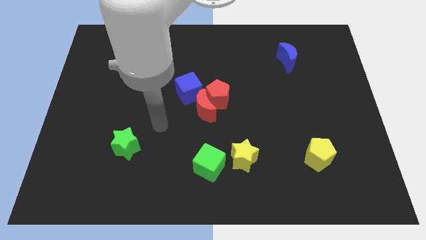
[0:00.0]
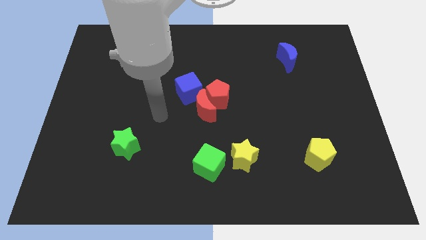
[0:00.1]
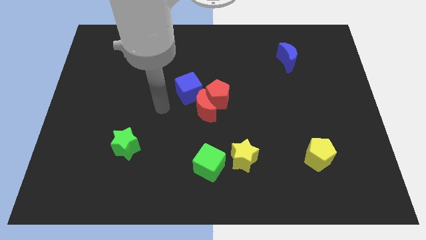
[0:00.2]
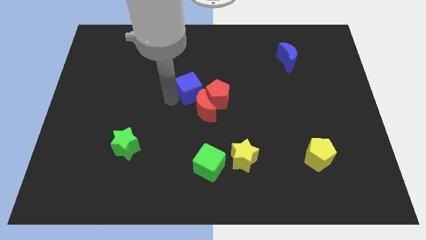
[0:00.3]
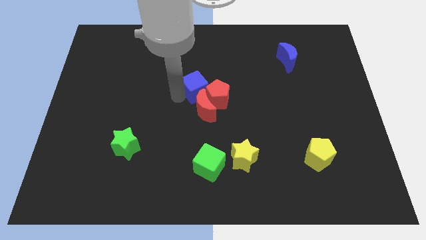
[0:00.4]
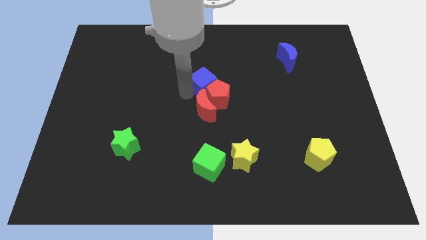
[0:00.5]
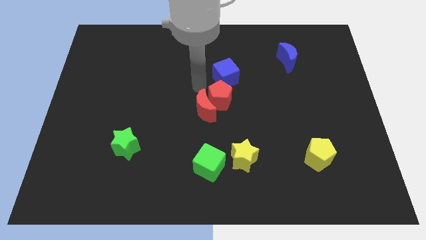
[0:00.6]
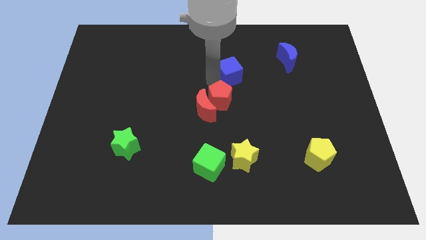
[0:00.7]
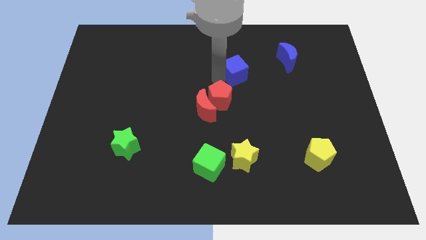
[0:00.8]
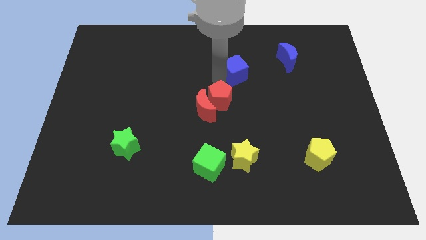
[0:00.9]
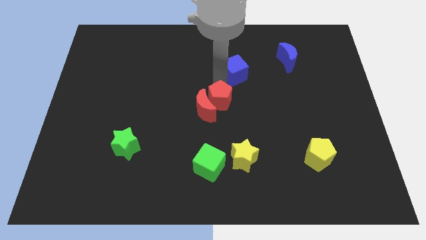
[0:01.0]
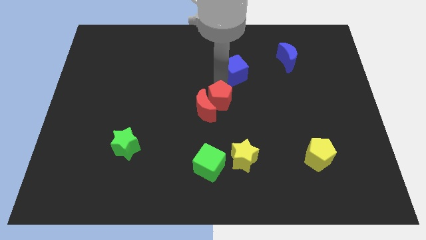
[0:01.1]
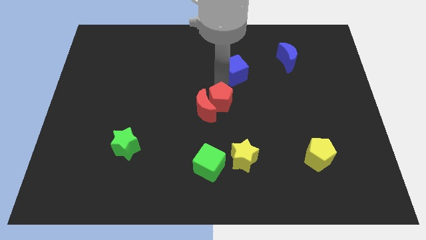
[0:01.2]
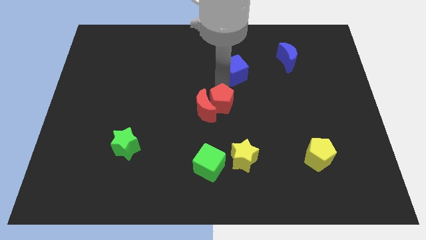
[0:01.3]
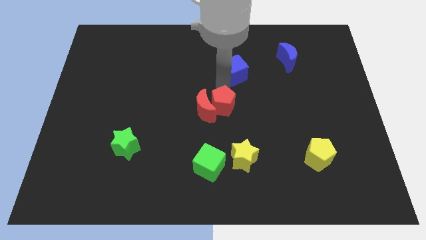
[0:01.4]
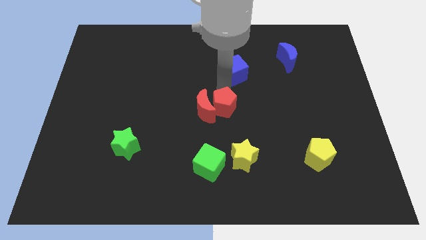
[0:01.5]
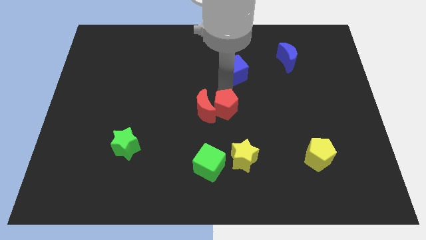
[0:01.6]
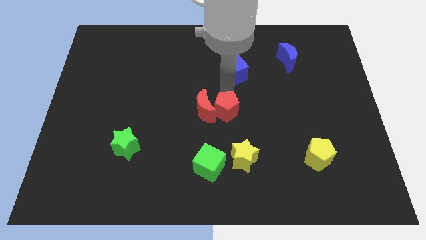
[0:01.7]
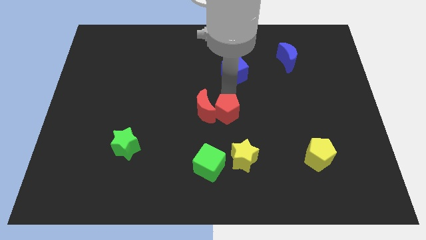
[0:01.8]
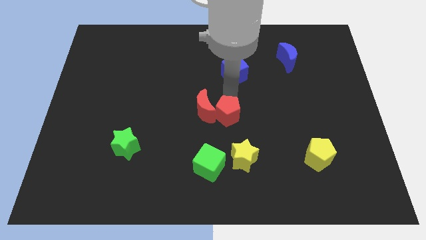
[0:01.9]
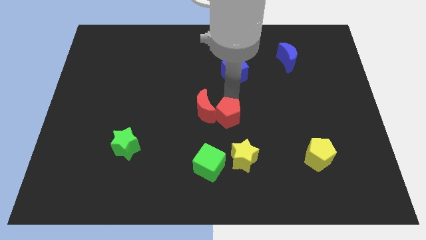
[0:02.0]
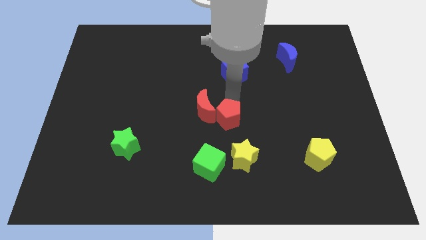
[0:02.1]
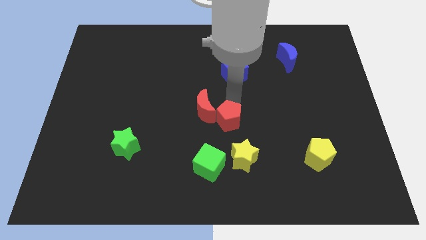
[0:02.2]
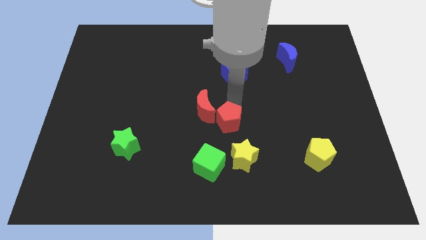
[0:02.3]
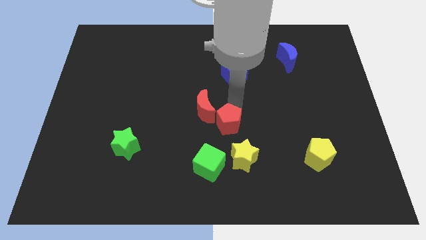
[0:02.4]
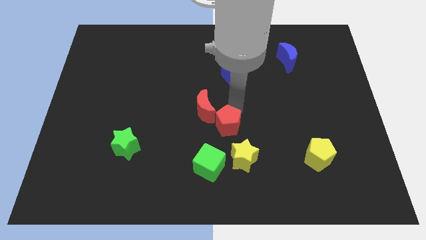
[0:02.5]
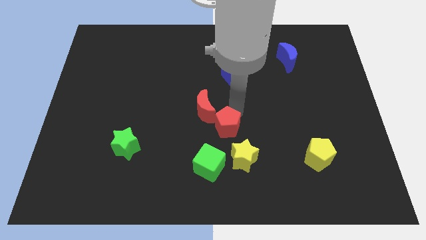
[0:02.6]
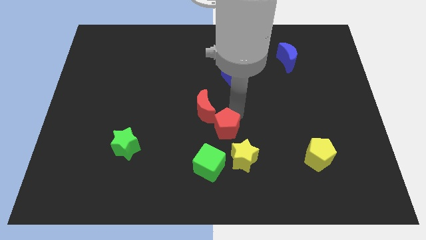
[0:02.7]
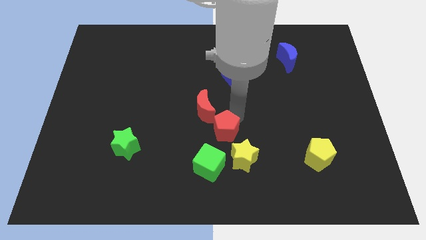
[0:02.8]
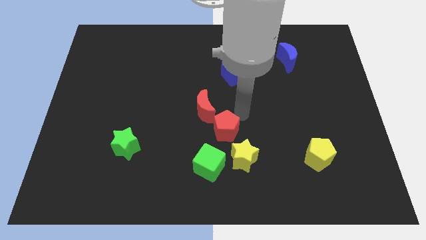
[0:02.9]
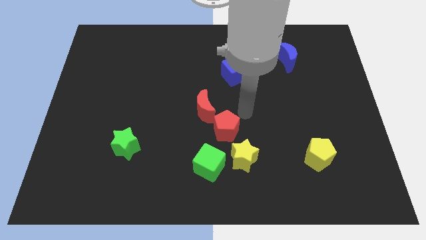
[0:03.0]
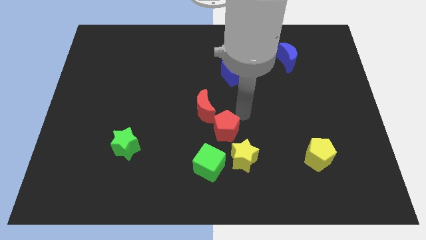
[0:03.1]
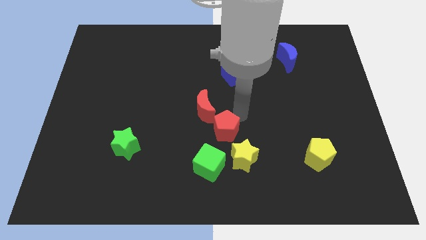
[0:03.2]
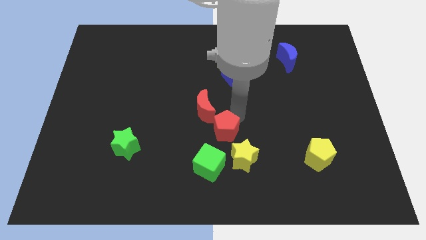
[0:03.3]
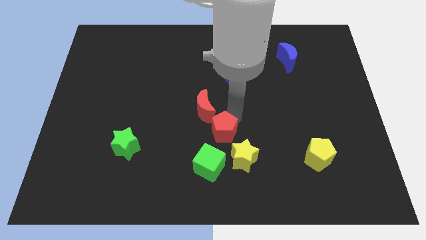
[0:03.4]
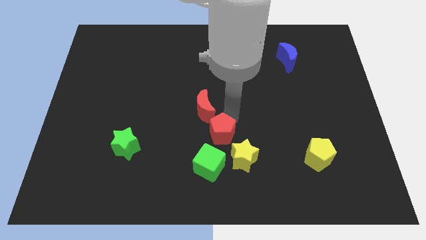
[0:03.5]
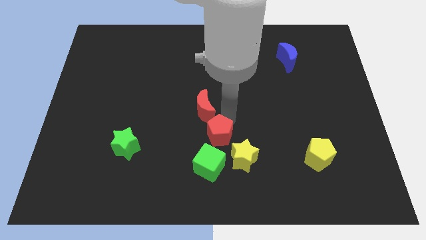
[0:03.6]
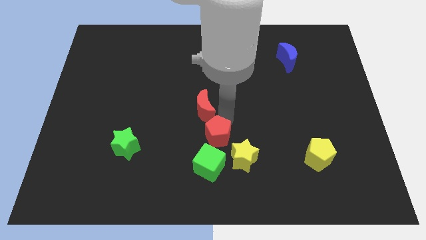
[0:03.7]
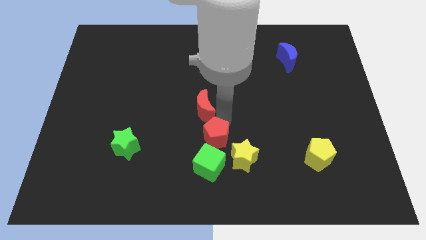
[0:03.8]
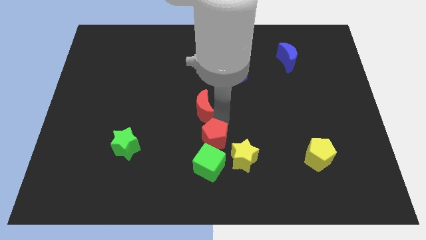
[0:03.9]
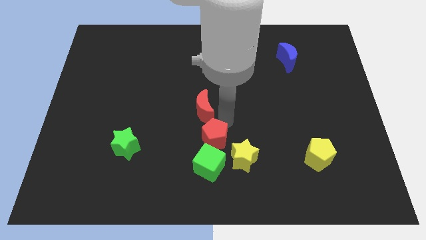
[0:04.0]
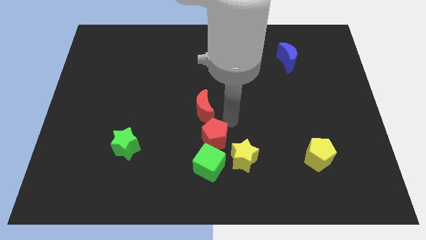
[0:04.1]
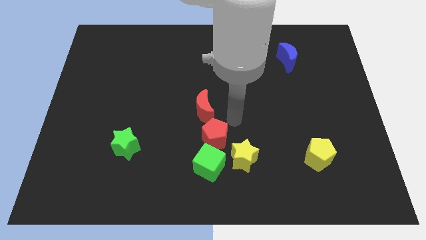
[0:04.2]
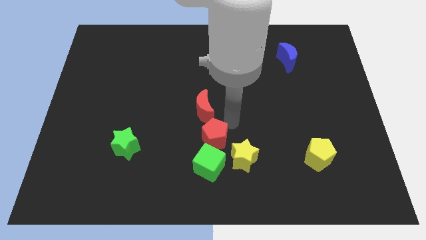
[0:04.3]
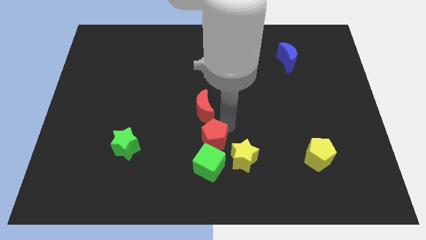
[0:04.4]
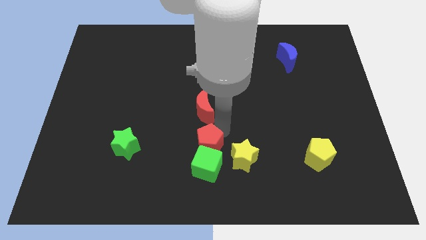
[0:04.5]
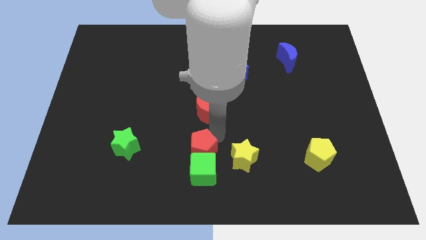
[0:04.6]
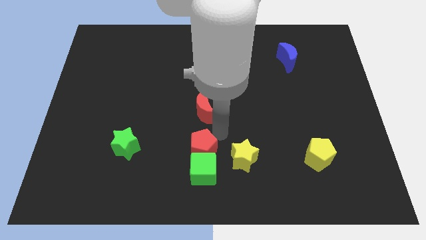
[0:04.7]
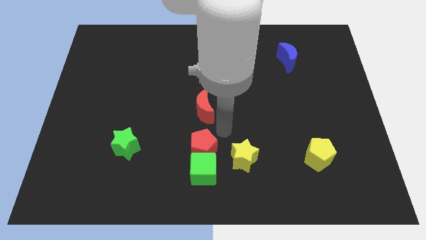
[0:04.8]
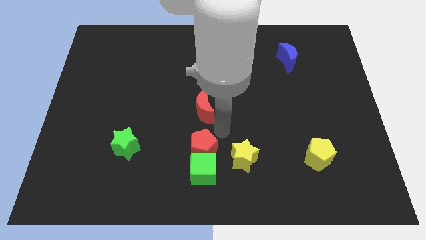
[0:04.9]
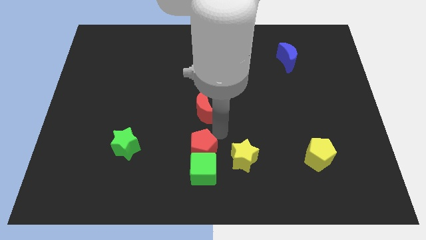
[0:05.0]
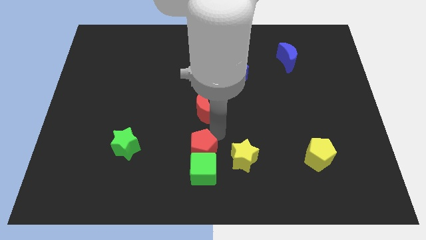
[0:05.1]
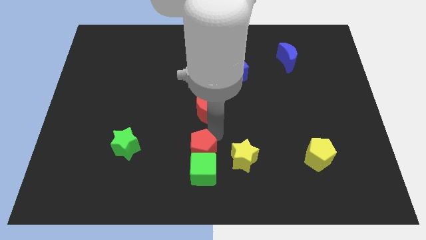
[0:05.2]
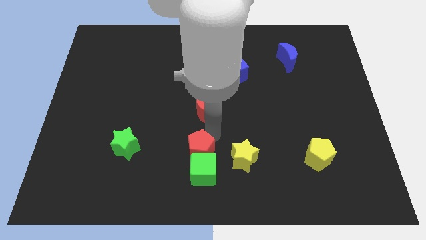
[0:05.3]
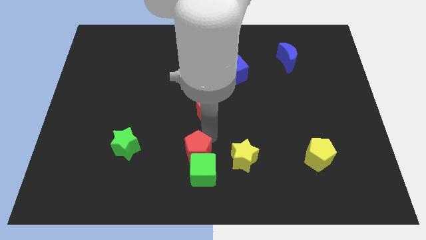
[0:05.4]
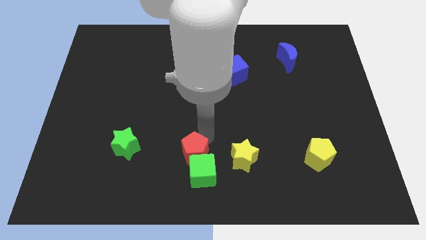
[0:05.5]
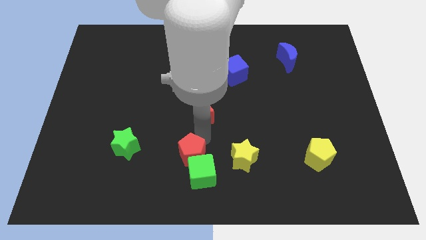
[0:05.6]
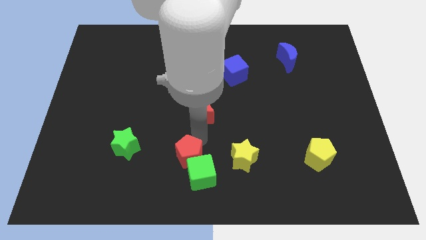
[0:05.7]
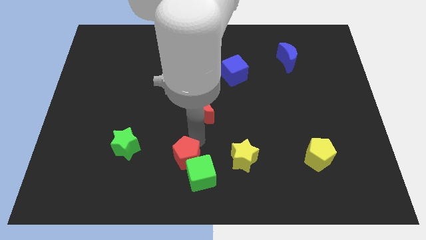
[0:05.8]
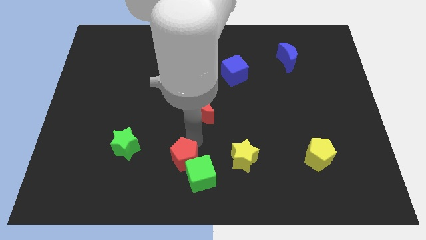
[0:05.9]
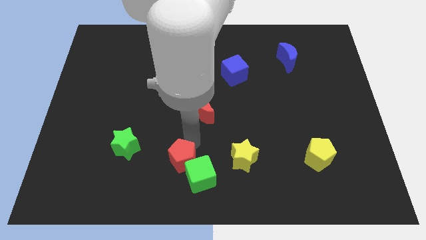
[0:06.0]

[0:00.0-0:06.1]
push the red pentagon to the bottom side
